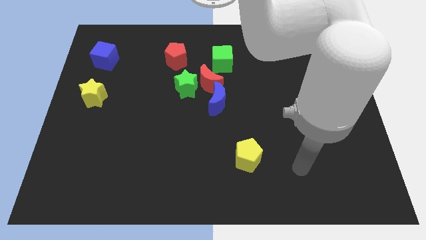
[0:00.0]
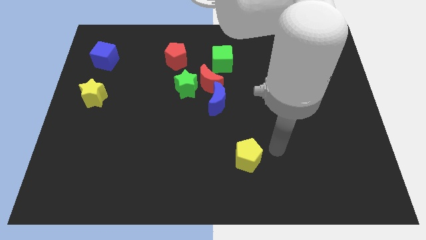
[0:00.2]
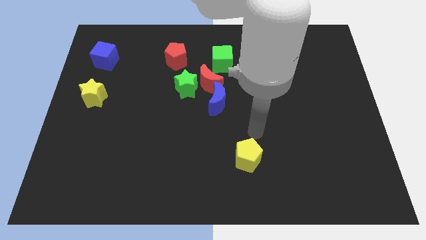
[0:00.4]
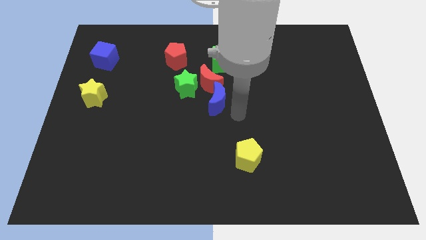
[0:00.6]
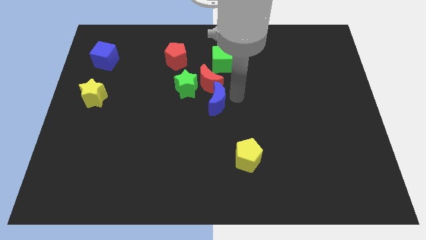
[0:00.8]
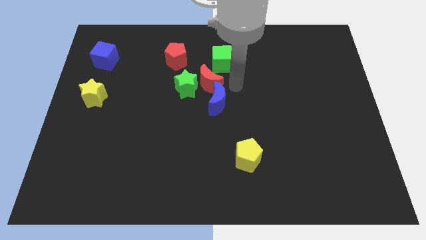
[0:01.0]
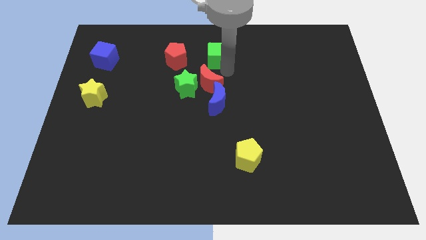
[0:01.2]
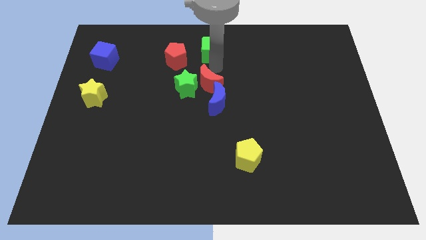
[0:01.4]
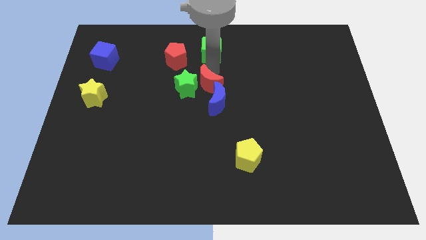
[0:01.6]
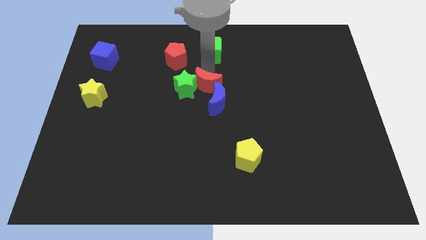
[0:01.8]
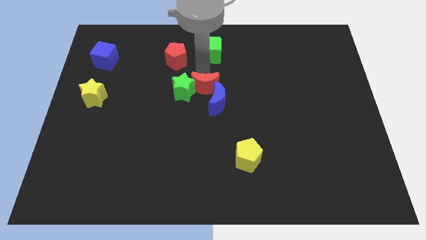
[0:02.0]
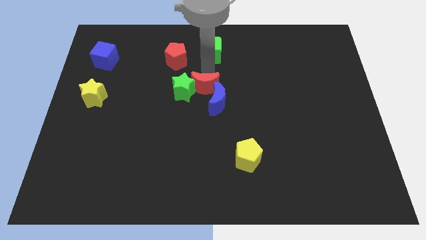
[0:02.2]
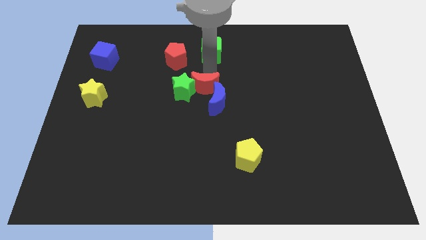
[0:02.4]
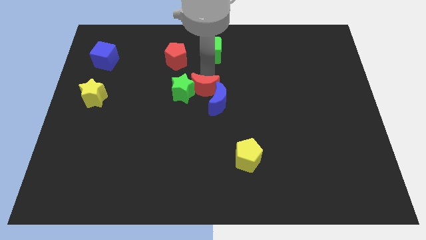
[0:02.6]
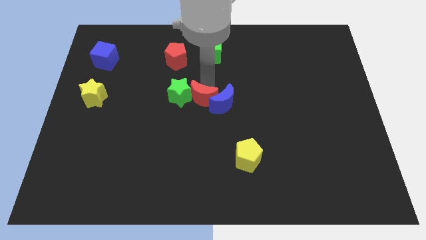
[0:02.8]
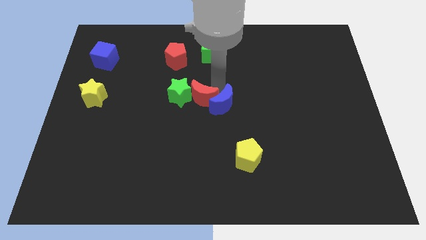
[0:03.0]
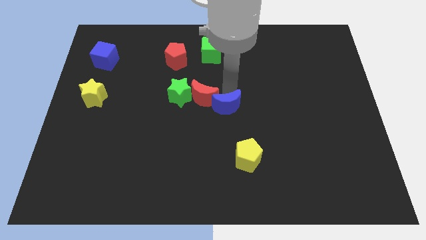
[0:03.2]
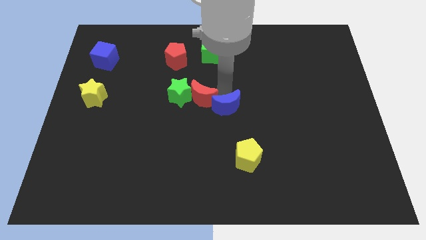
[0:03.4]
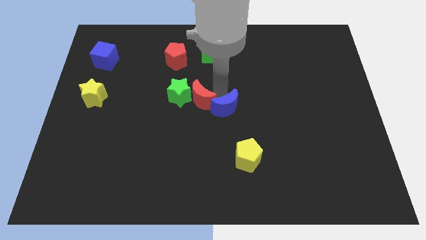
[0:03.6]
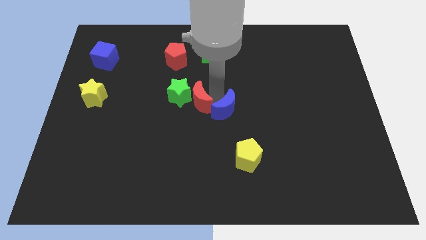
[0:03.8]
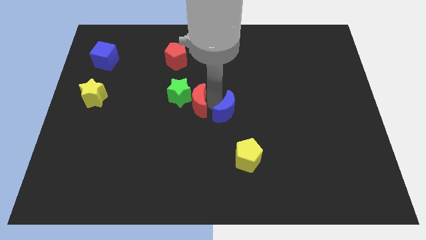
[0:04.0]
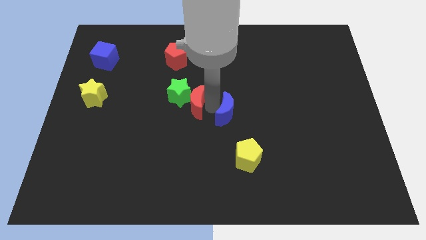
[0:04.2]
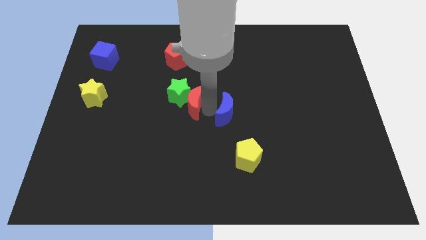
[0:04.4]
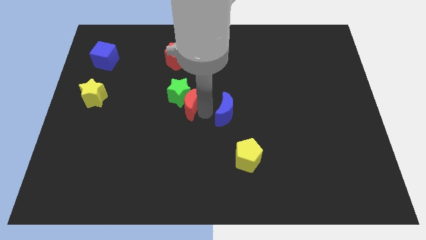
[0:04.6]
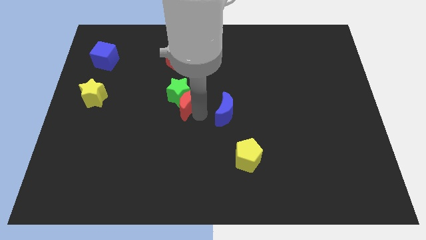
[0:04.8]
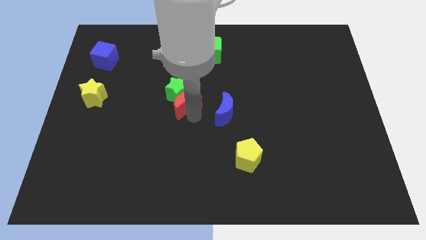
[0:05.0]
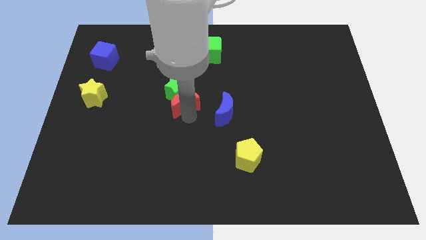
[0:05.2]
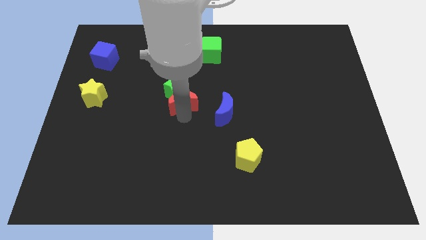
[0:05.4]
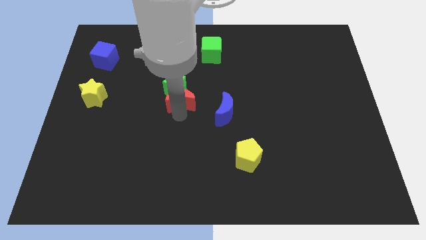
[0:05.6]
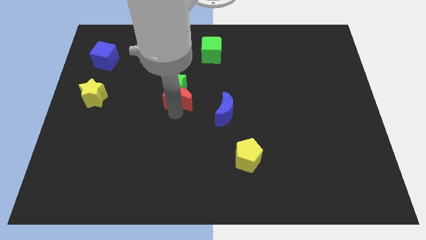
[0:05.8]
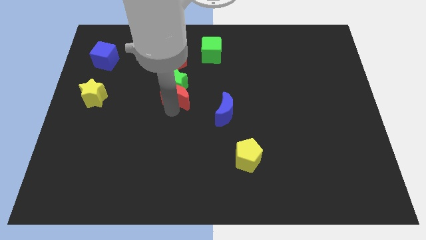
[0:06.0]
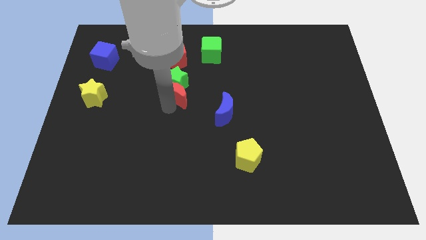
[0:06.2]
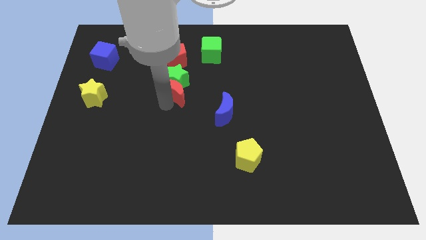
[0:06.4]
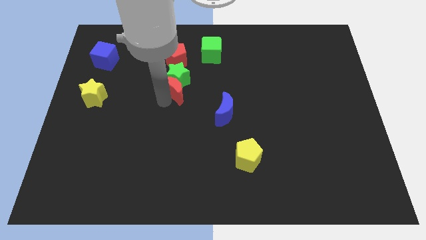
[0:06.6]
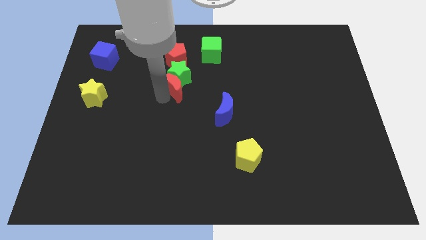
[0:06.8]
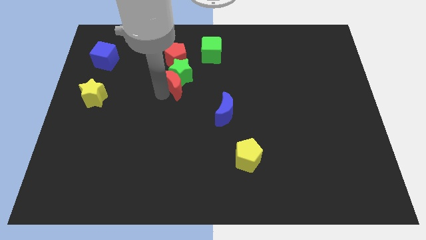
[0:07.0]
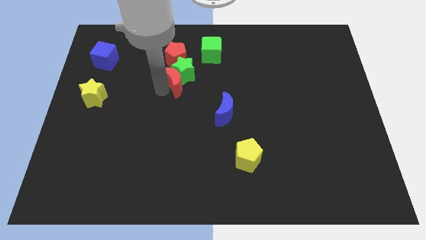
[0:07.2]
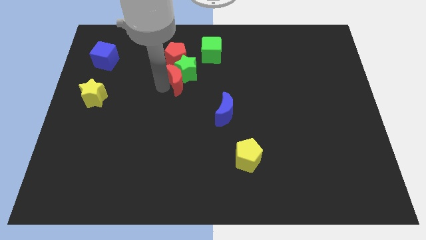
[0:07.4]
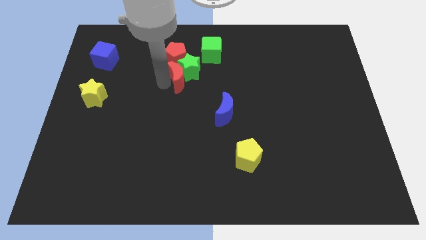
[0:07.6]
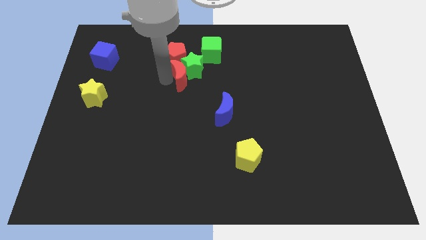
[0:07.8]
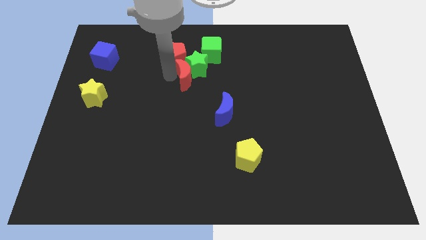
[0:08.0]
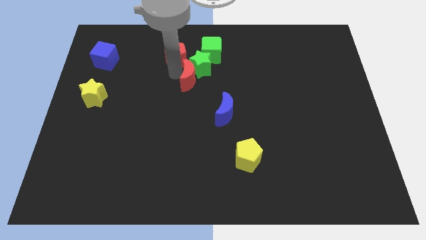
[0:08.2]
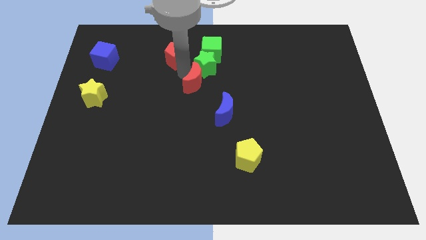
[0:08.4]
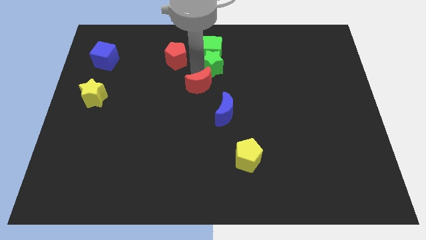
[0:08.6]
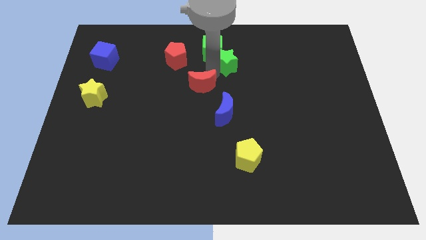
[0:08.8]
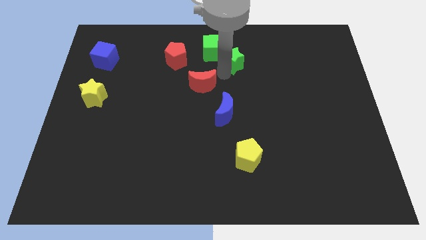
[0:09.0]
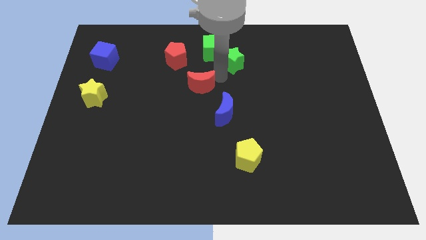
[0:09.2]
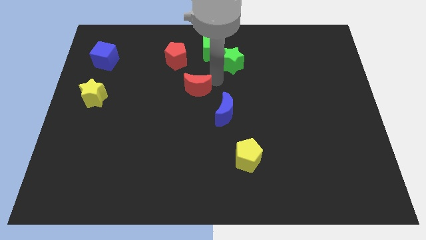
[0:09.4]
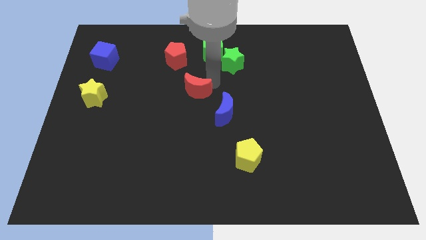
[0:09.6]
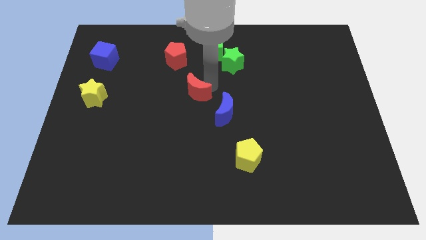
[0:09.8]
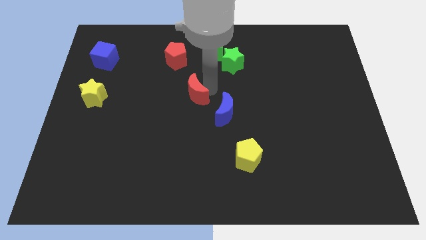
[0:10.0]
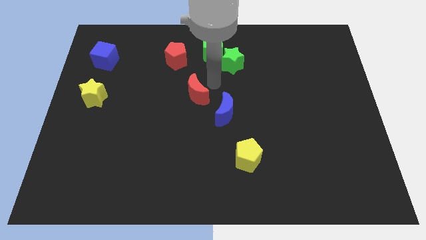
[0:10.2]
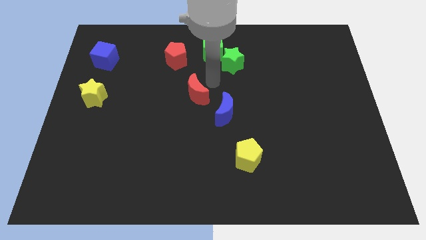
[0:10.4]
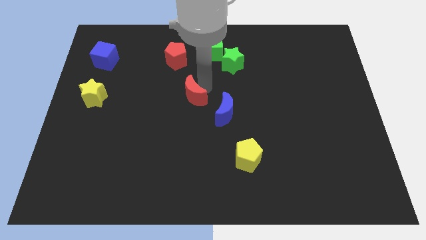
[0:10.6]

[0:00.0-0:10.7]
move the red moon away from the green star, blue moon, and green cube

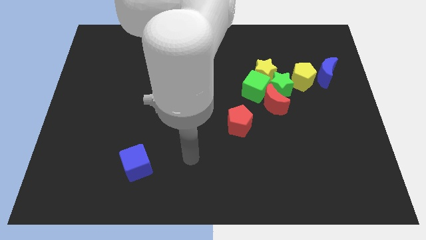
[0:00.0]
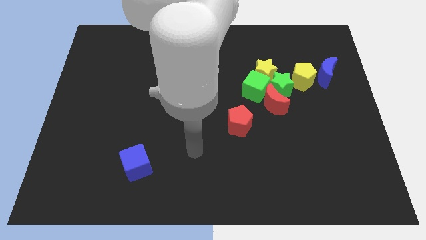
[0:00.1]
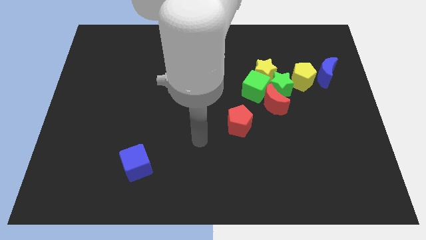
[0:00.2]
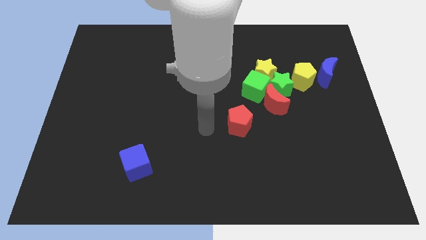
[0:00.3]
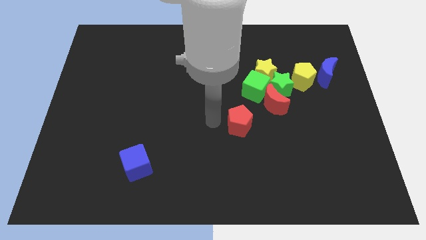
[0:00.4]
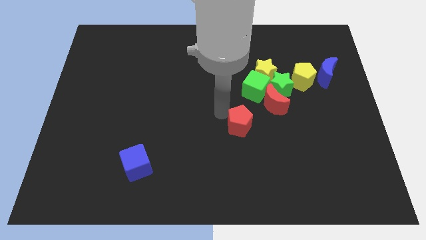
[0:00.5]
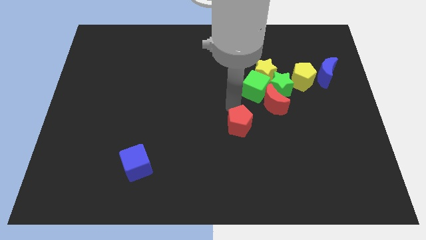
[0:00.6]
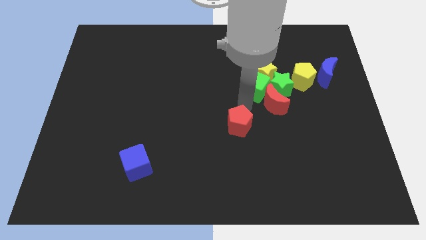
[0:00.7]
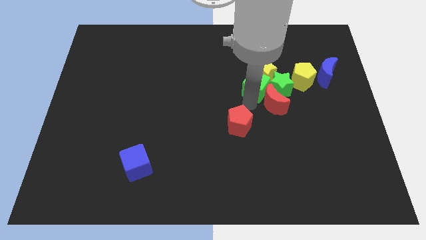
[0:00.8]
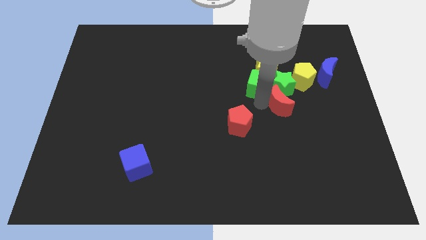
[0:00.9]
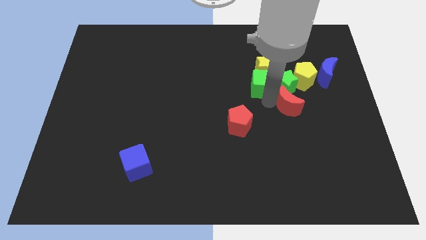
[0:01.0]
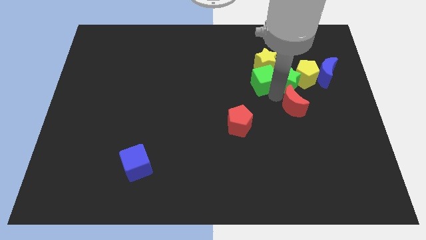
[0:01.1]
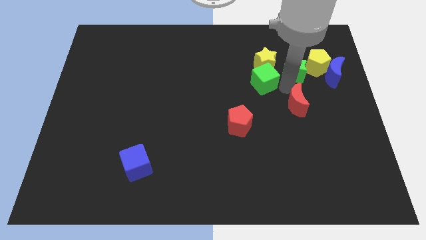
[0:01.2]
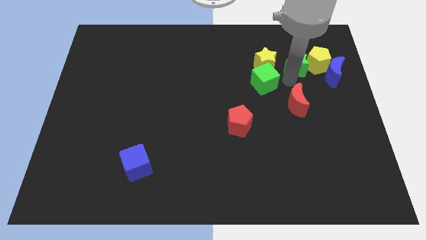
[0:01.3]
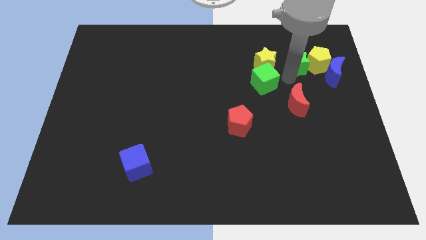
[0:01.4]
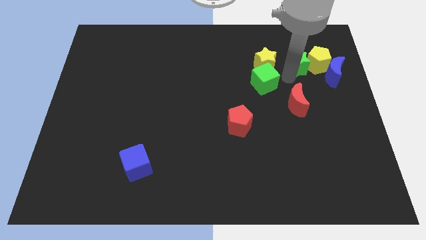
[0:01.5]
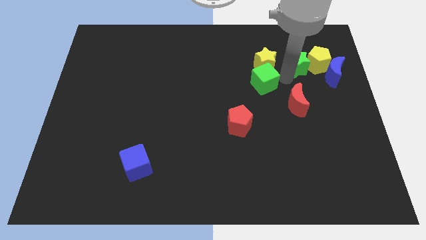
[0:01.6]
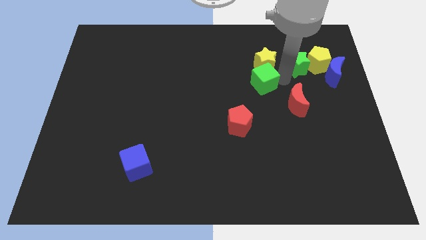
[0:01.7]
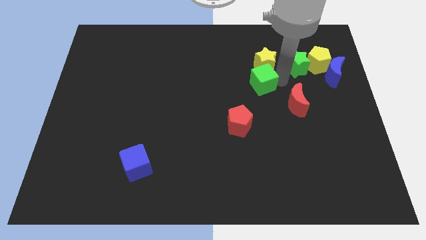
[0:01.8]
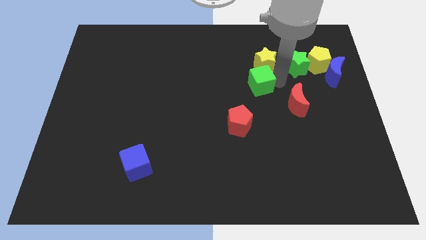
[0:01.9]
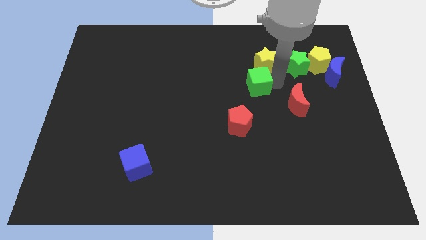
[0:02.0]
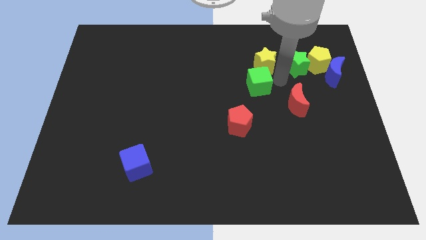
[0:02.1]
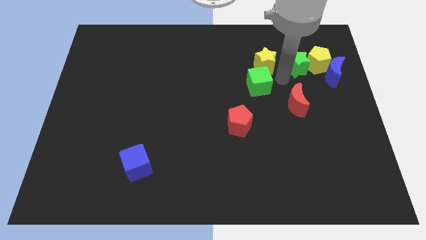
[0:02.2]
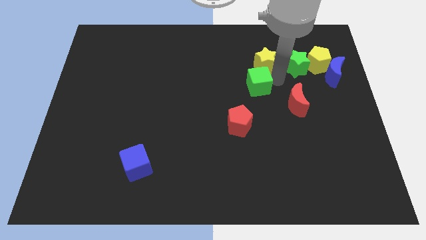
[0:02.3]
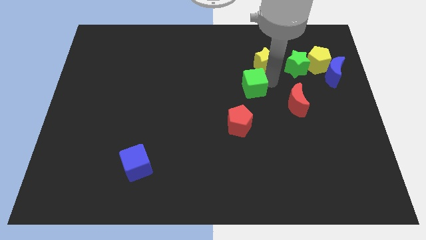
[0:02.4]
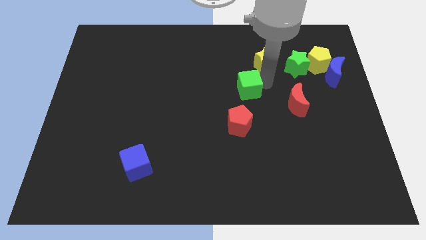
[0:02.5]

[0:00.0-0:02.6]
separate the green cube from the group

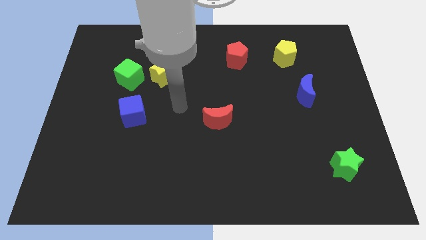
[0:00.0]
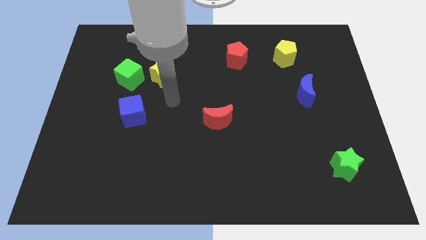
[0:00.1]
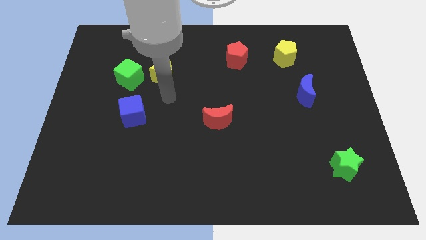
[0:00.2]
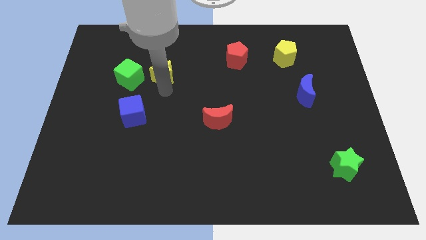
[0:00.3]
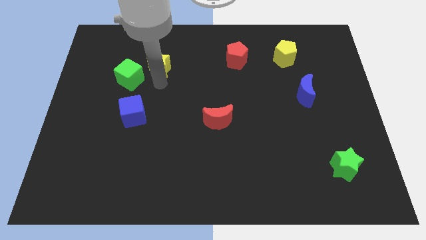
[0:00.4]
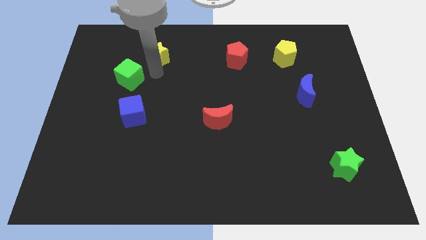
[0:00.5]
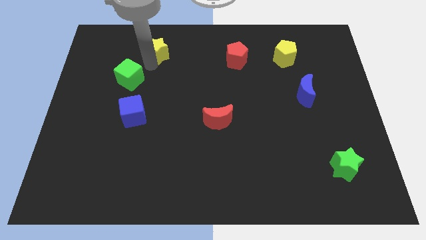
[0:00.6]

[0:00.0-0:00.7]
pull the green cube apart from the yellow star

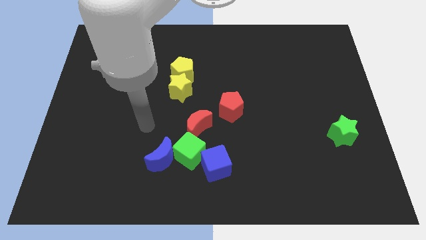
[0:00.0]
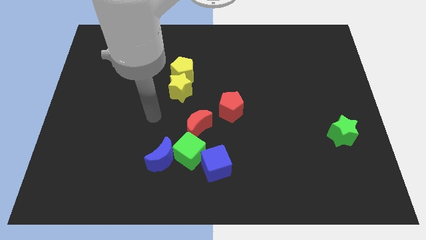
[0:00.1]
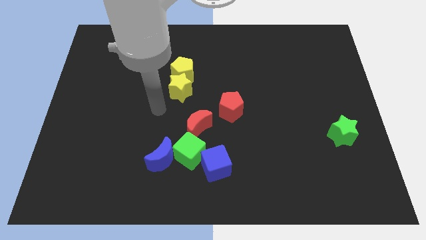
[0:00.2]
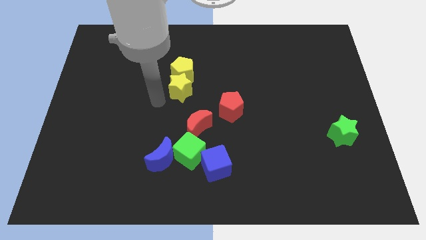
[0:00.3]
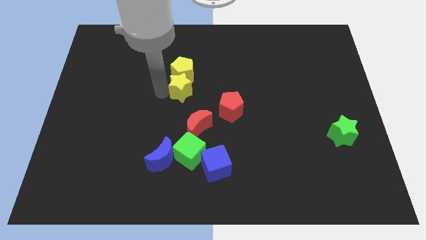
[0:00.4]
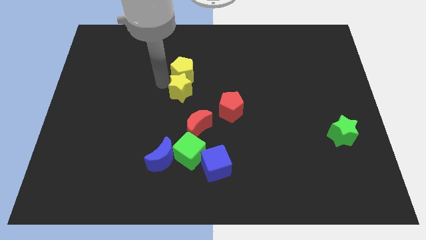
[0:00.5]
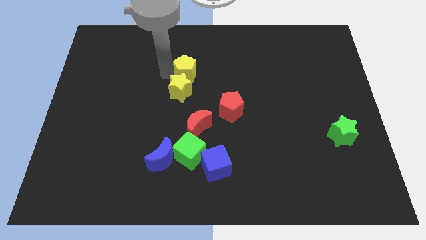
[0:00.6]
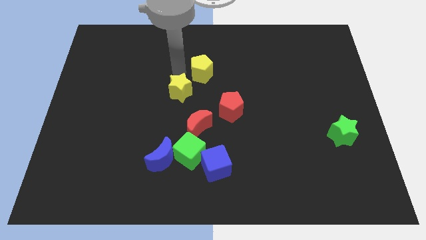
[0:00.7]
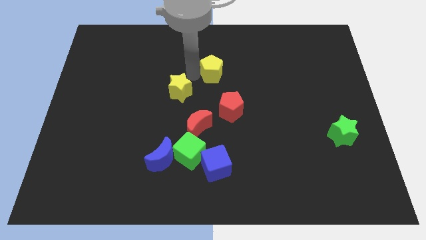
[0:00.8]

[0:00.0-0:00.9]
pull the yellow star apart from the yellow pentagon
